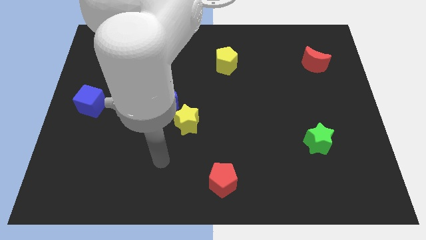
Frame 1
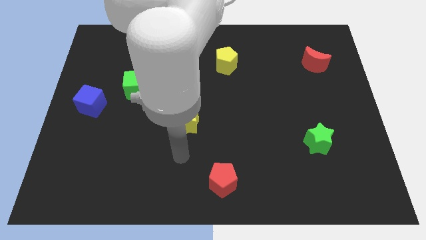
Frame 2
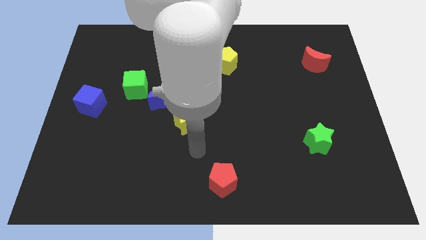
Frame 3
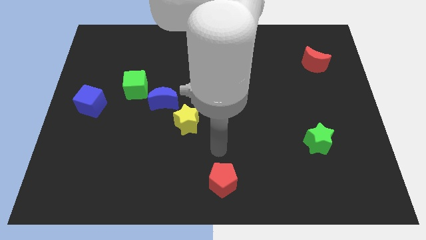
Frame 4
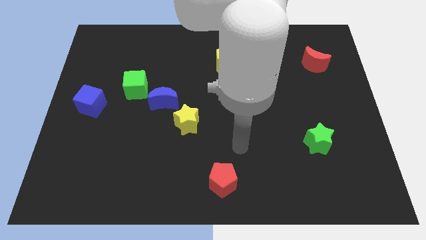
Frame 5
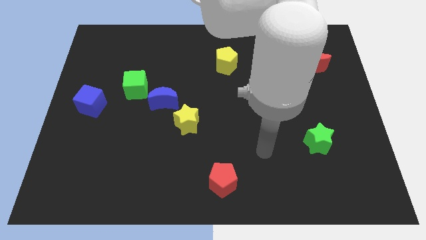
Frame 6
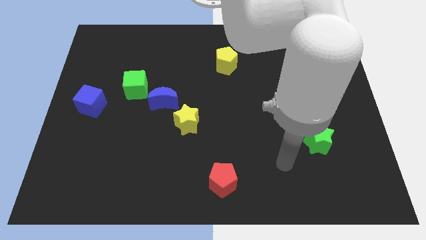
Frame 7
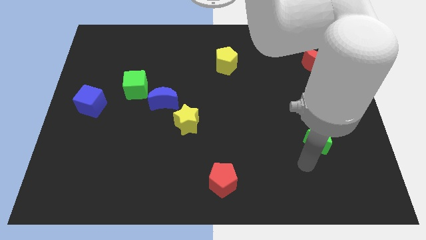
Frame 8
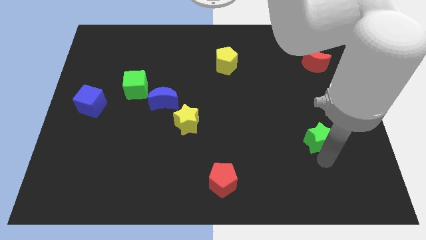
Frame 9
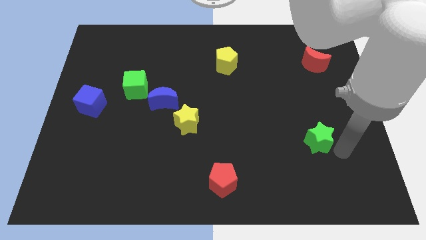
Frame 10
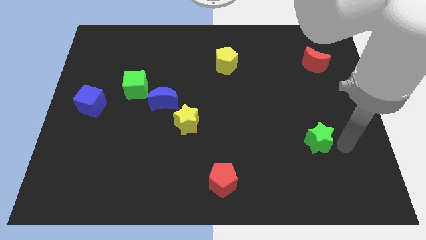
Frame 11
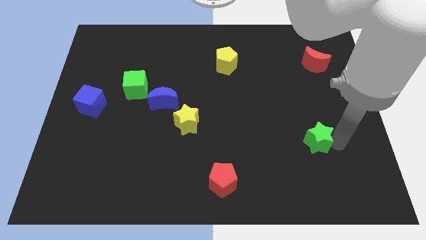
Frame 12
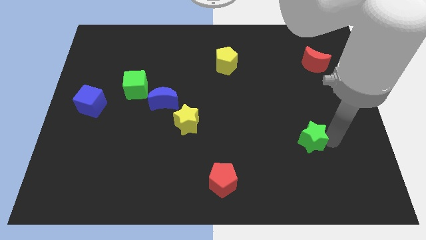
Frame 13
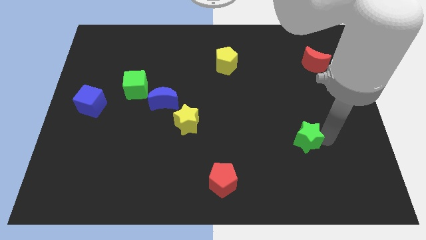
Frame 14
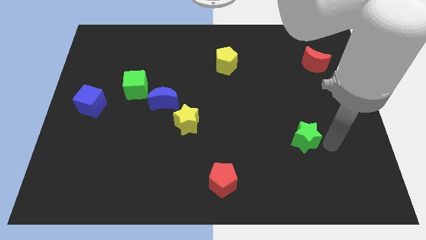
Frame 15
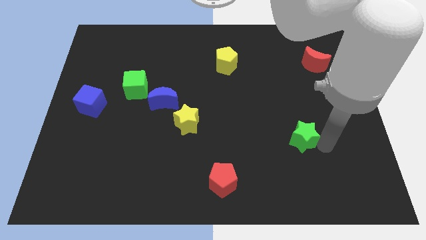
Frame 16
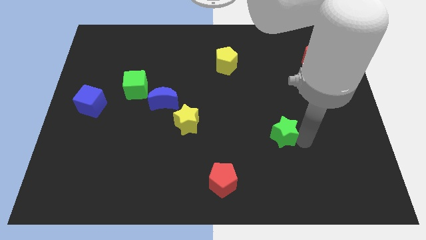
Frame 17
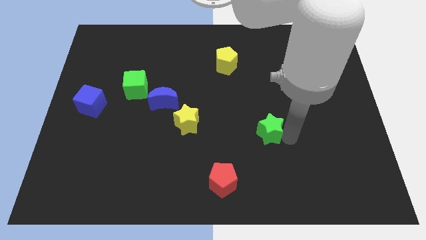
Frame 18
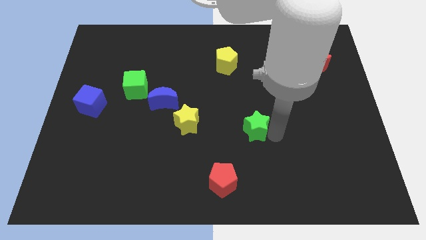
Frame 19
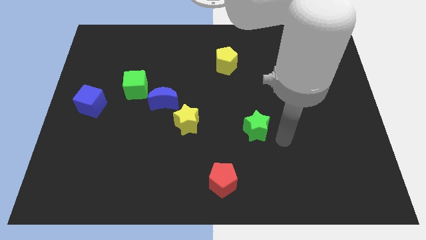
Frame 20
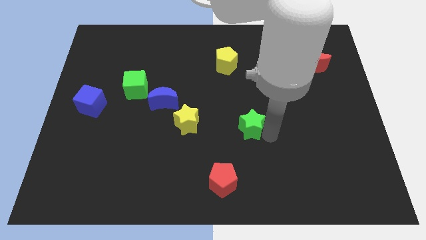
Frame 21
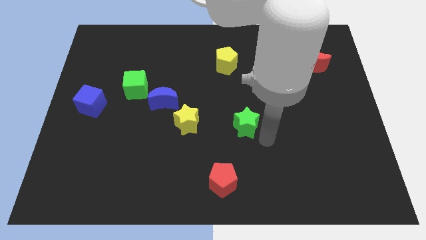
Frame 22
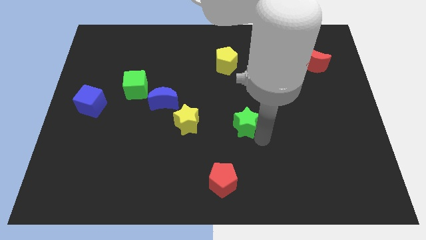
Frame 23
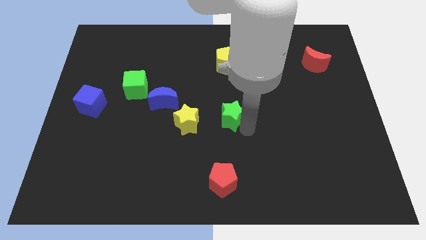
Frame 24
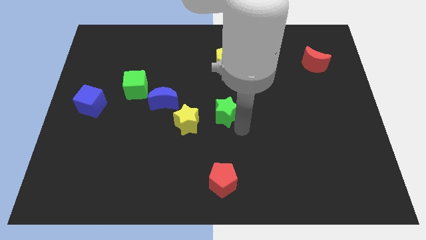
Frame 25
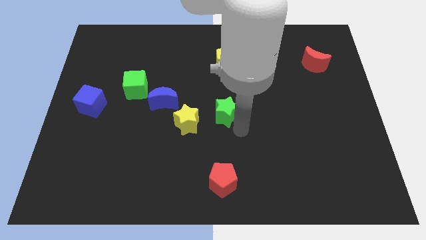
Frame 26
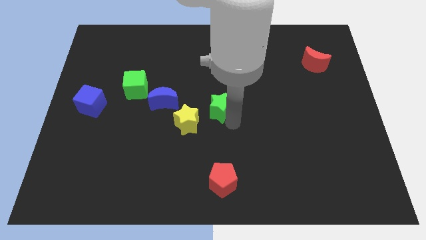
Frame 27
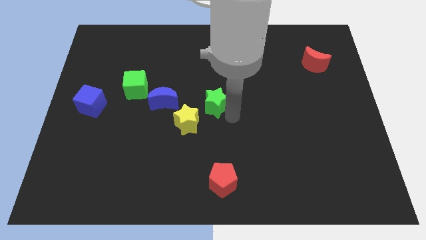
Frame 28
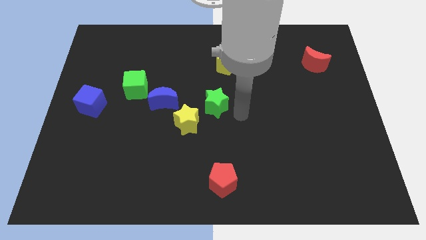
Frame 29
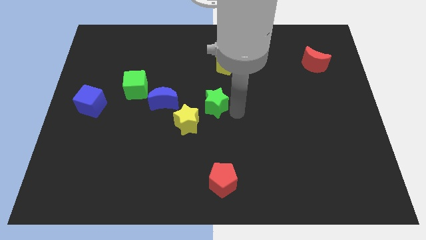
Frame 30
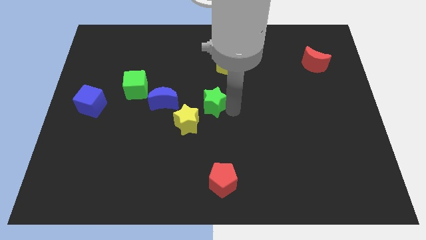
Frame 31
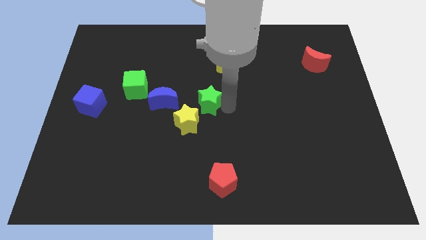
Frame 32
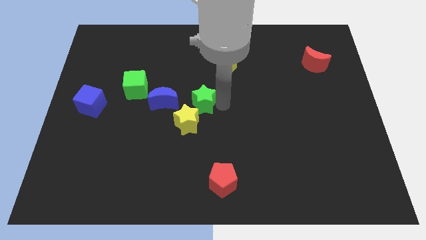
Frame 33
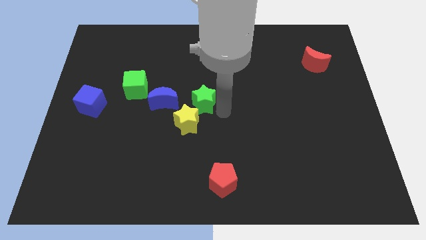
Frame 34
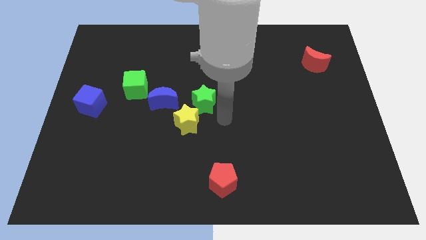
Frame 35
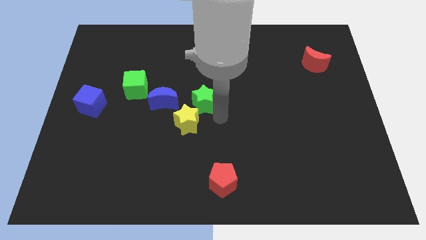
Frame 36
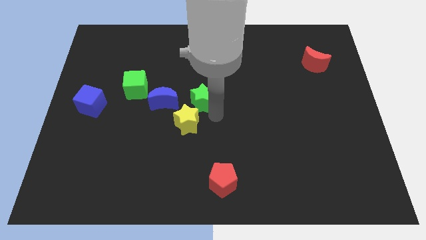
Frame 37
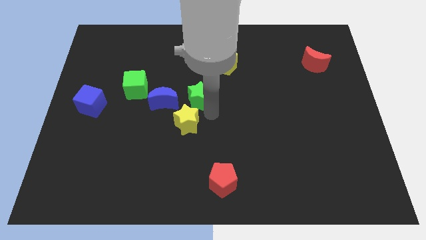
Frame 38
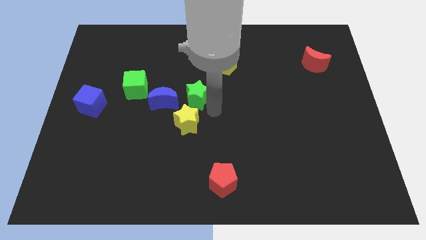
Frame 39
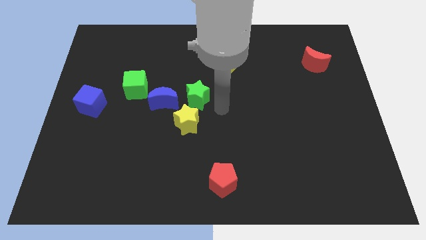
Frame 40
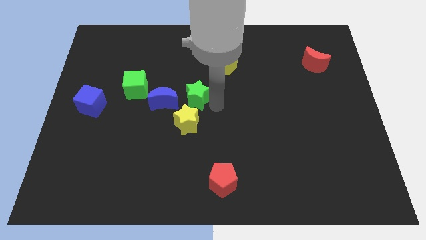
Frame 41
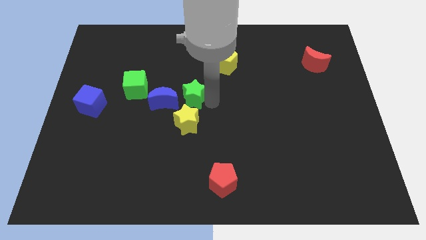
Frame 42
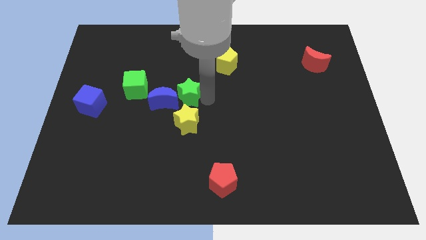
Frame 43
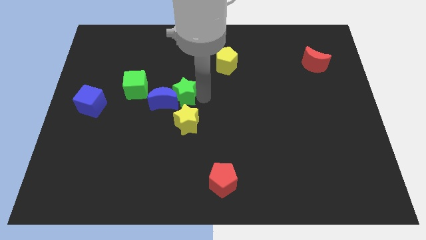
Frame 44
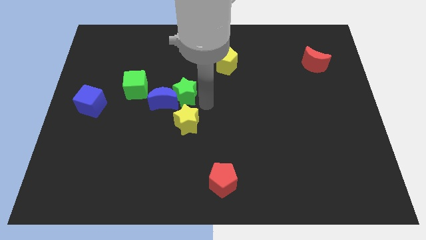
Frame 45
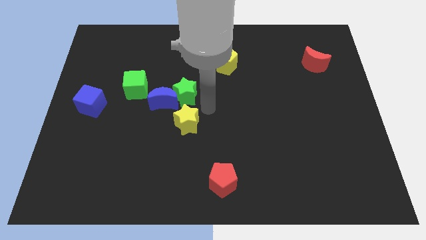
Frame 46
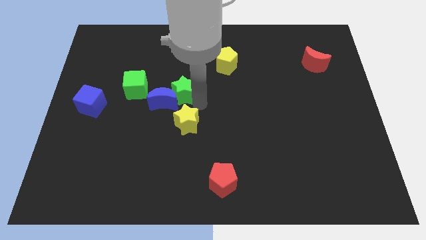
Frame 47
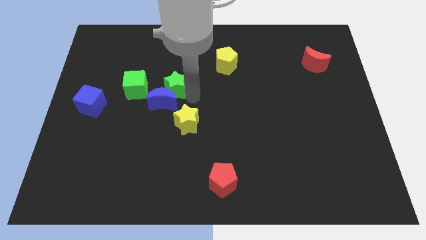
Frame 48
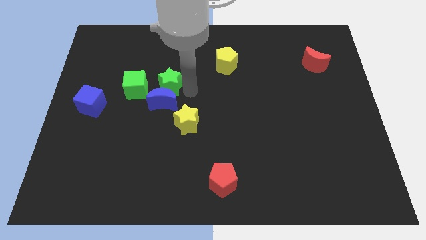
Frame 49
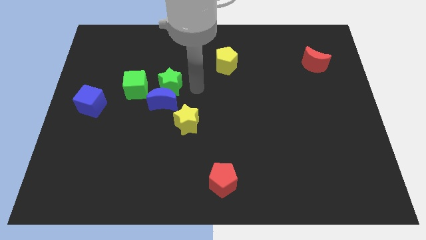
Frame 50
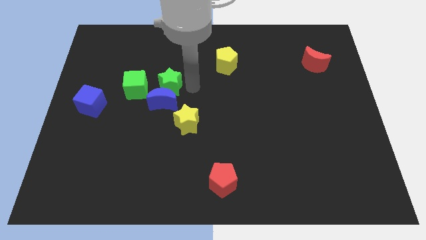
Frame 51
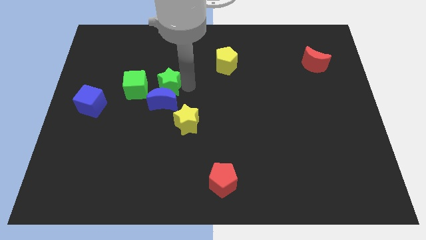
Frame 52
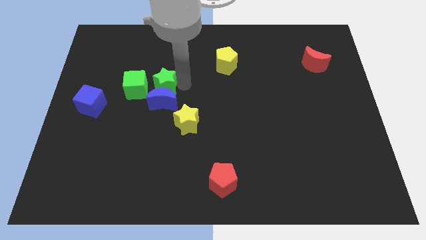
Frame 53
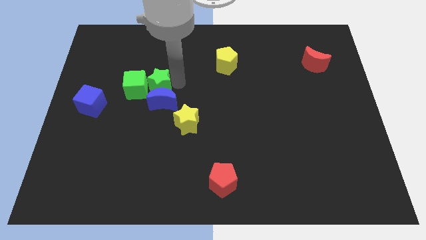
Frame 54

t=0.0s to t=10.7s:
slide the green star to the green cube

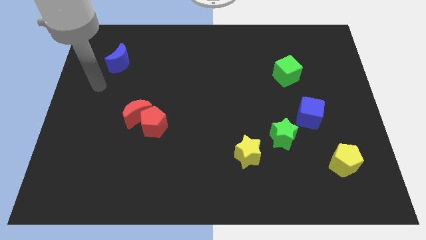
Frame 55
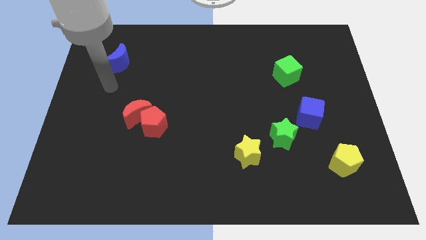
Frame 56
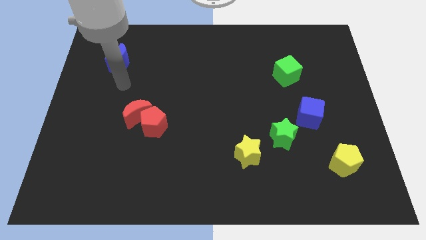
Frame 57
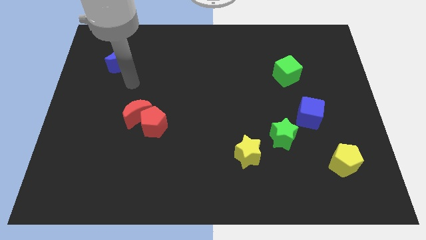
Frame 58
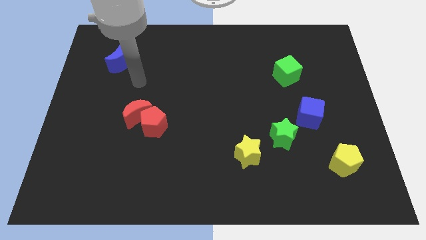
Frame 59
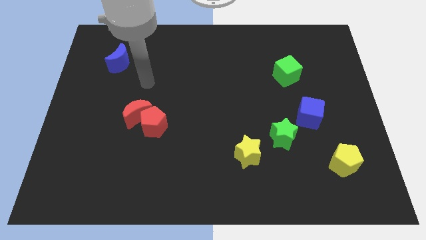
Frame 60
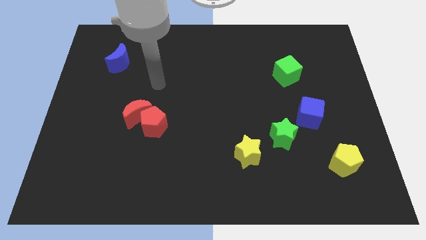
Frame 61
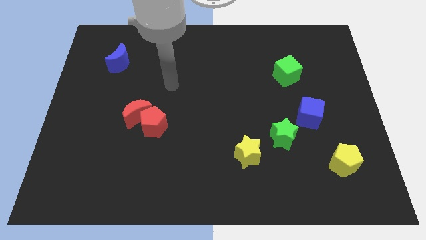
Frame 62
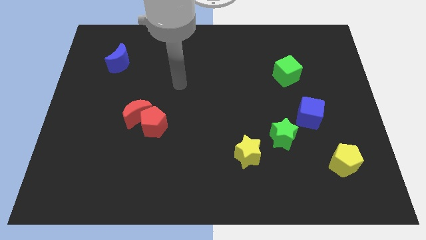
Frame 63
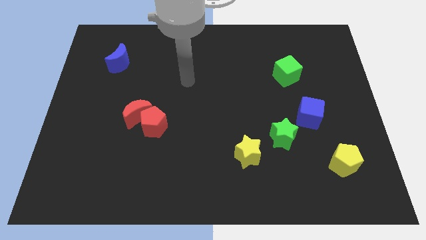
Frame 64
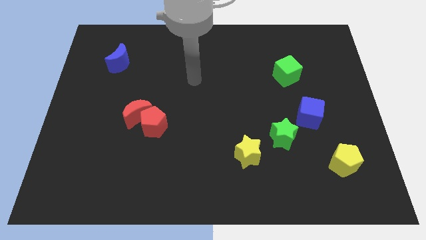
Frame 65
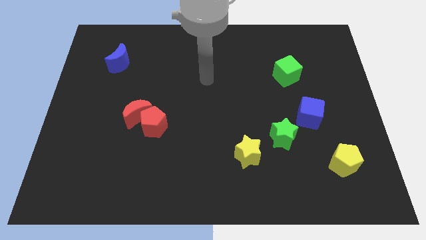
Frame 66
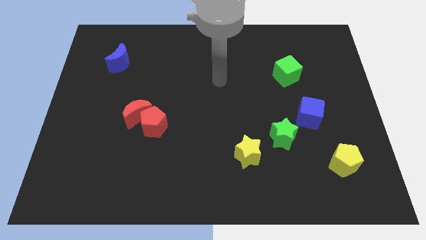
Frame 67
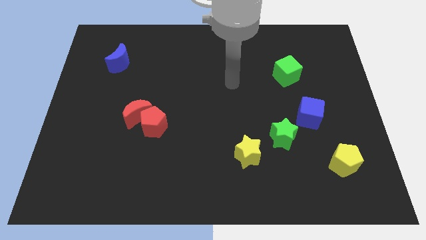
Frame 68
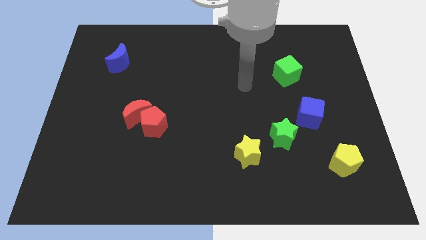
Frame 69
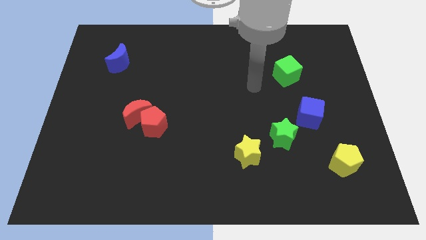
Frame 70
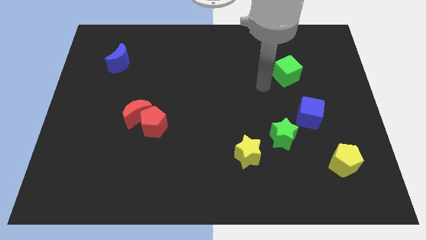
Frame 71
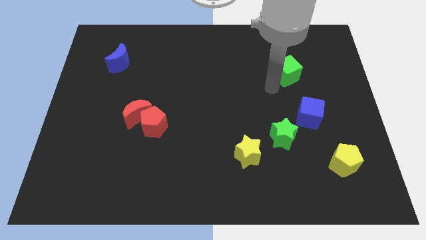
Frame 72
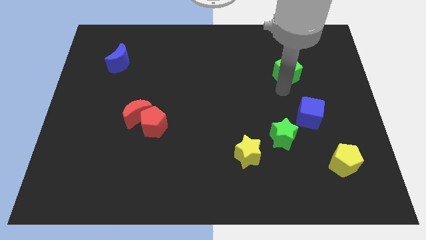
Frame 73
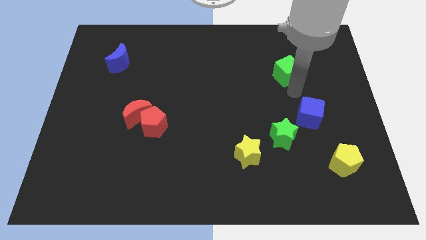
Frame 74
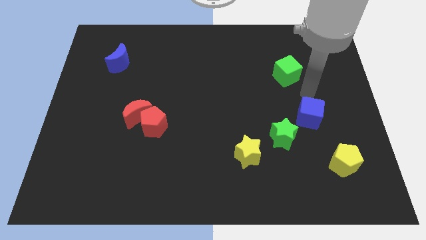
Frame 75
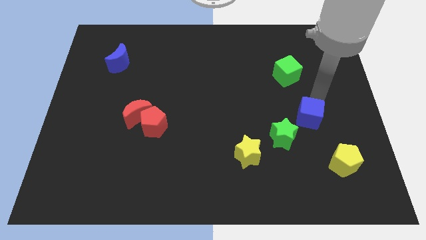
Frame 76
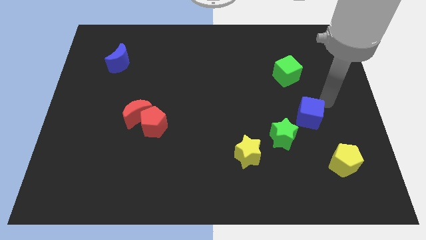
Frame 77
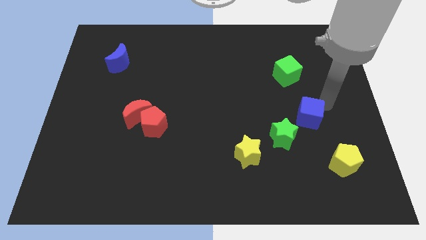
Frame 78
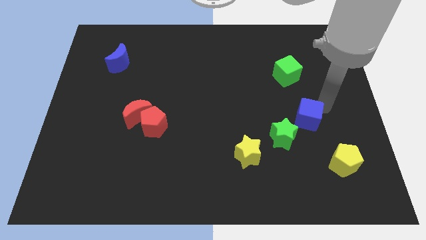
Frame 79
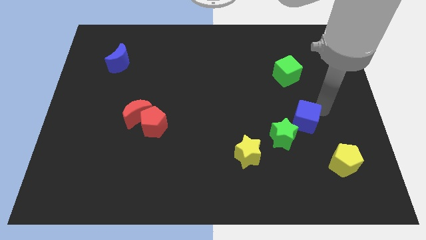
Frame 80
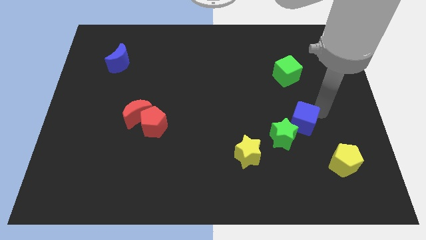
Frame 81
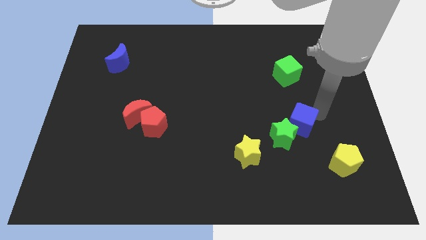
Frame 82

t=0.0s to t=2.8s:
move the blue cube close to the green star
